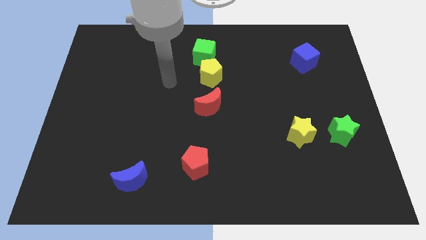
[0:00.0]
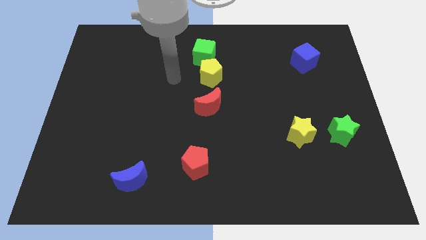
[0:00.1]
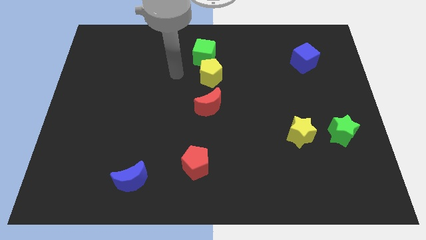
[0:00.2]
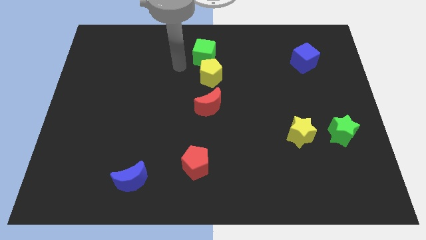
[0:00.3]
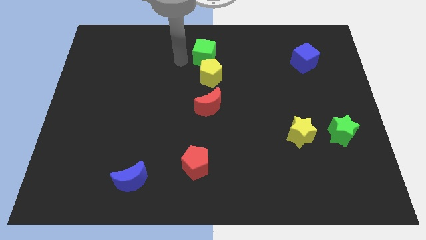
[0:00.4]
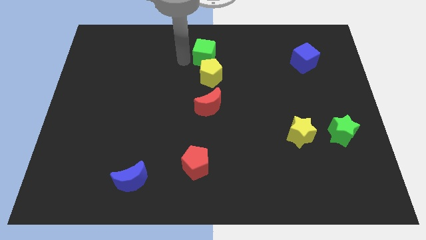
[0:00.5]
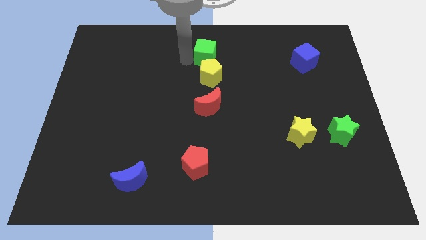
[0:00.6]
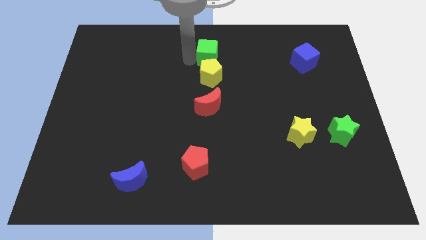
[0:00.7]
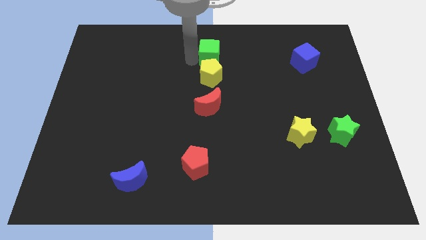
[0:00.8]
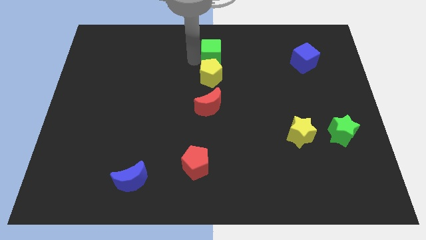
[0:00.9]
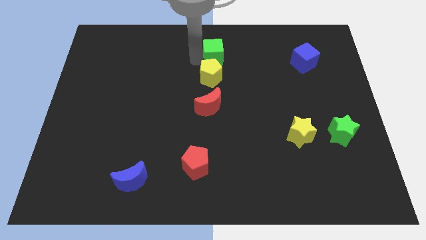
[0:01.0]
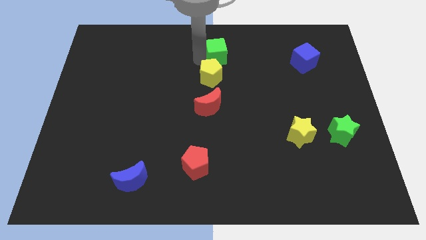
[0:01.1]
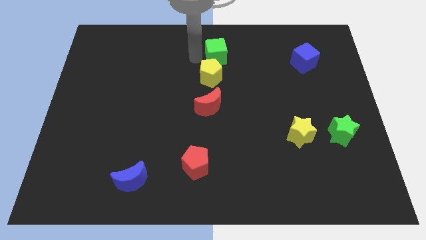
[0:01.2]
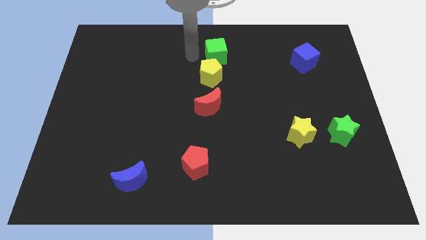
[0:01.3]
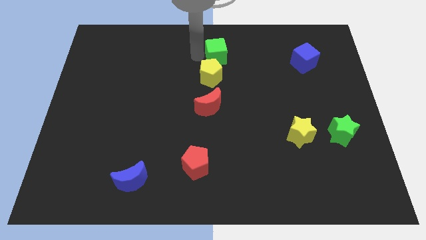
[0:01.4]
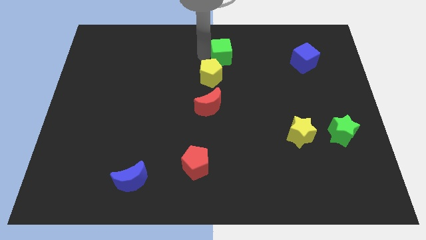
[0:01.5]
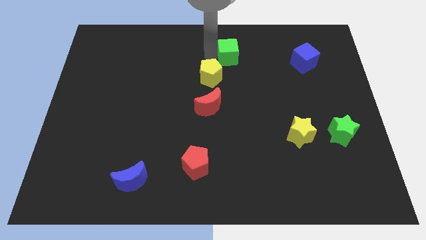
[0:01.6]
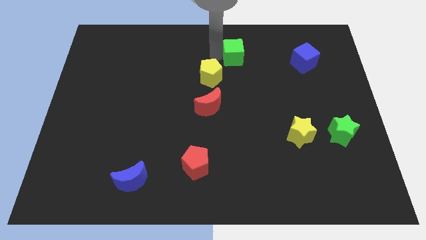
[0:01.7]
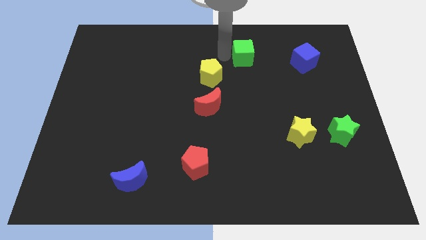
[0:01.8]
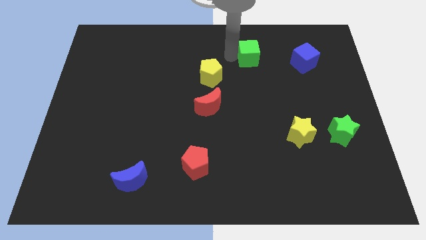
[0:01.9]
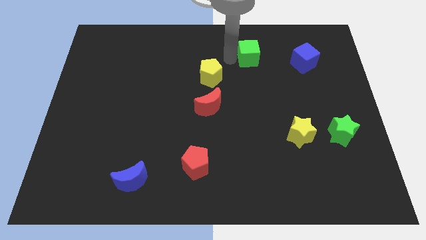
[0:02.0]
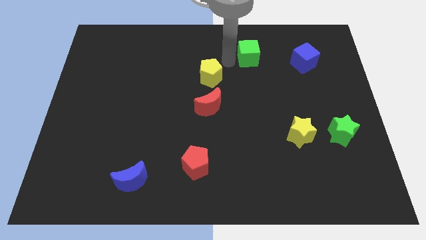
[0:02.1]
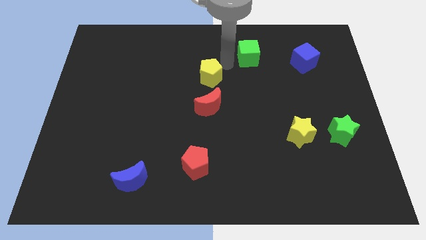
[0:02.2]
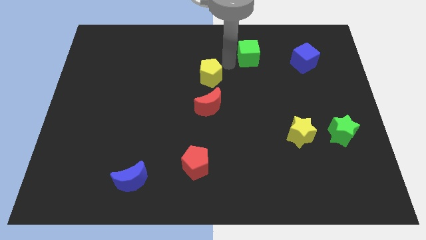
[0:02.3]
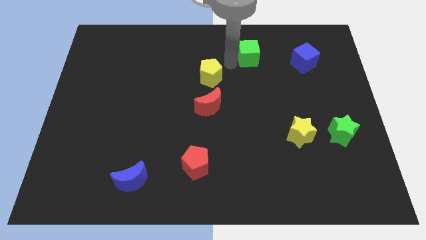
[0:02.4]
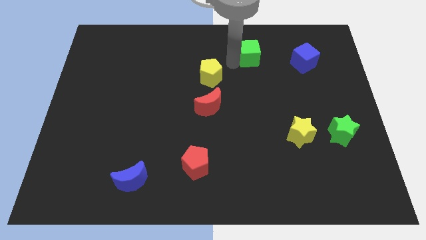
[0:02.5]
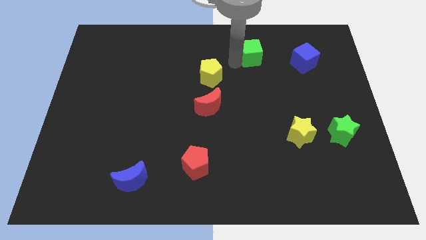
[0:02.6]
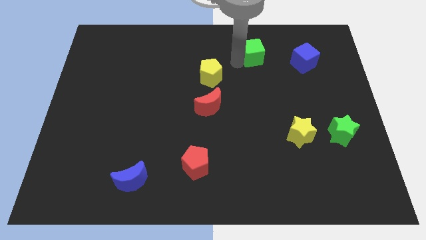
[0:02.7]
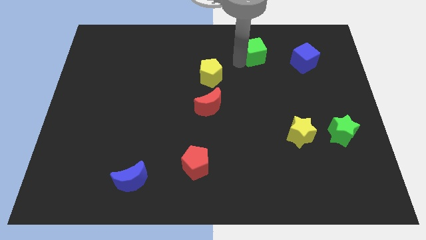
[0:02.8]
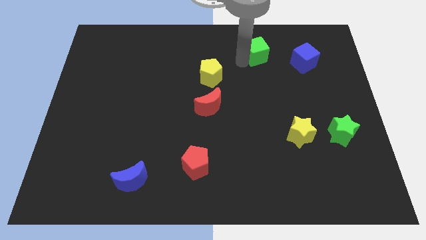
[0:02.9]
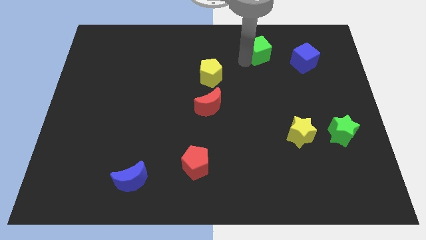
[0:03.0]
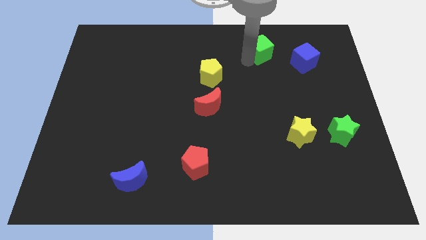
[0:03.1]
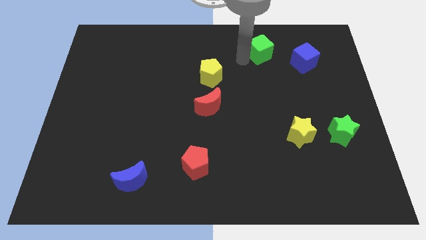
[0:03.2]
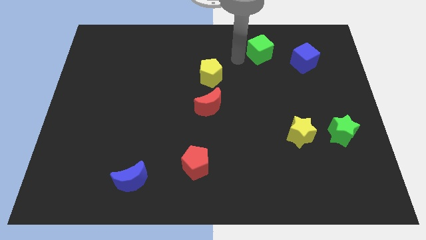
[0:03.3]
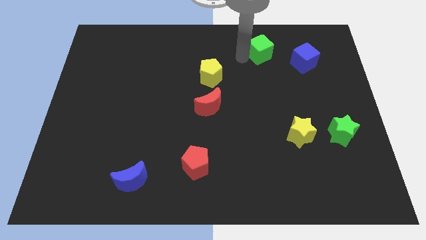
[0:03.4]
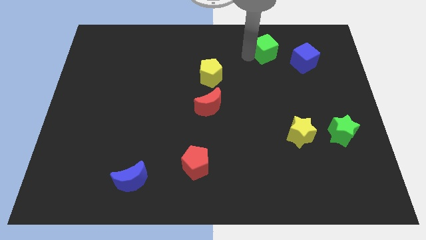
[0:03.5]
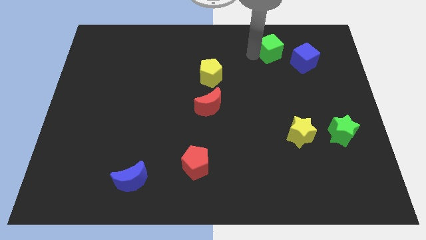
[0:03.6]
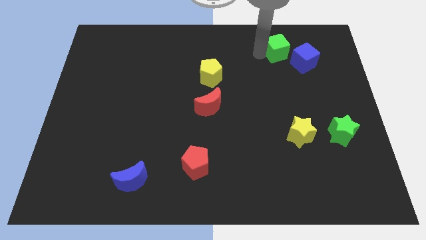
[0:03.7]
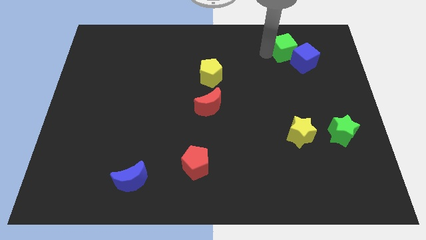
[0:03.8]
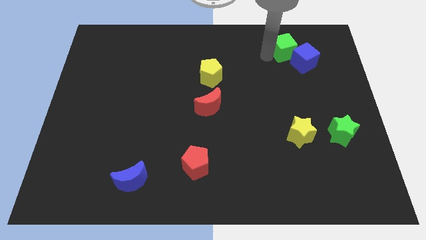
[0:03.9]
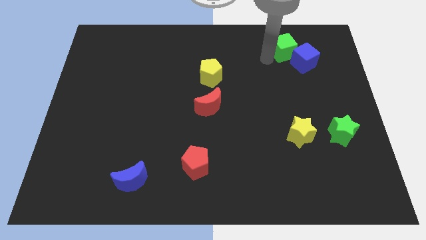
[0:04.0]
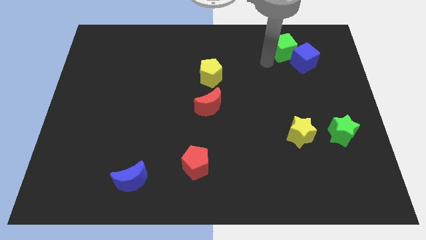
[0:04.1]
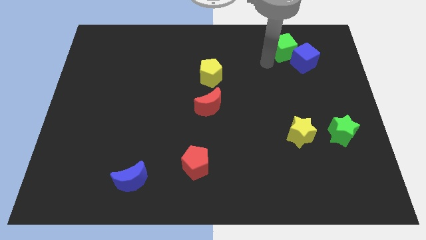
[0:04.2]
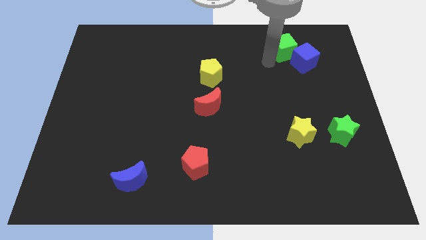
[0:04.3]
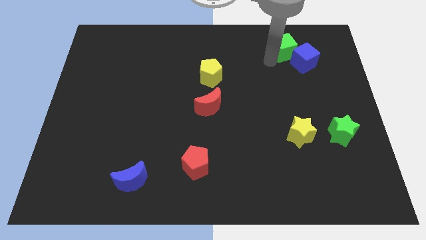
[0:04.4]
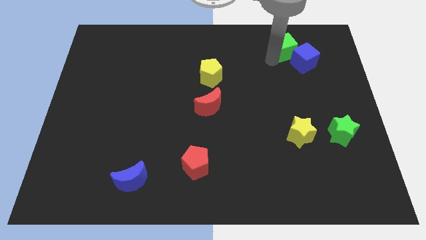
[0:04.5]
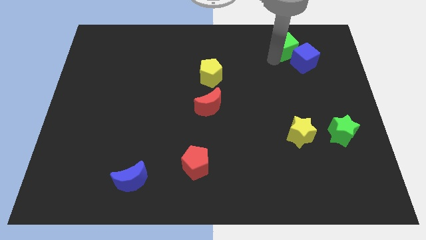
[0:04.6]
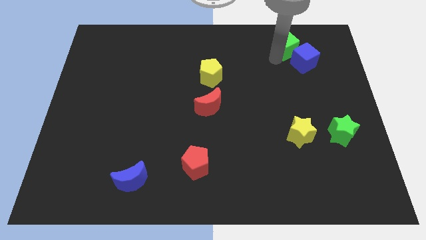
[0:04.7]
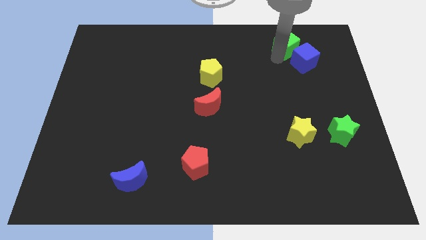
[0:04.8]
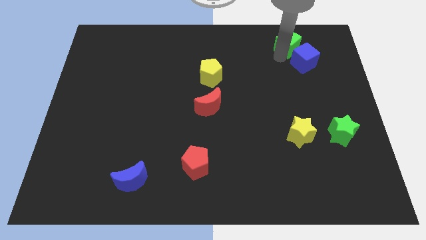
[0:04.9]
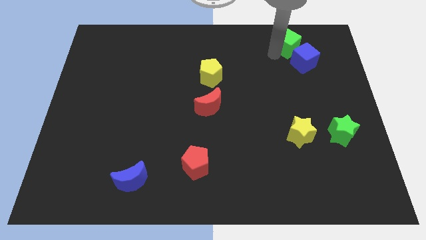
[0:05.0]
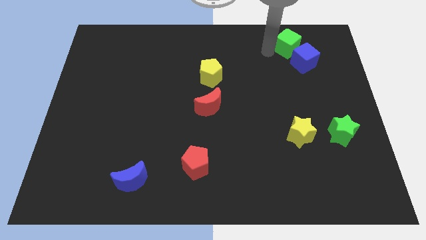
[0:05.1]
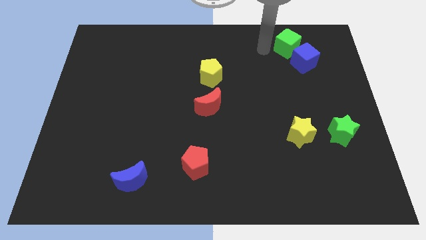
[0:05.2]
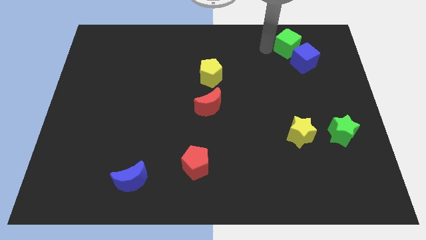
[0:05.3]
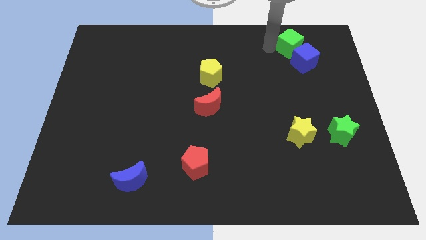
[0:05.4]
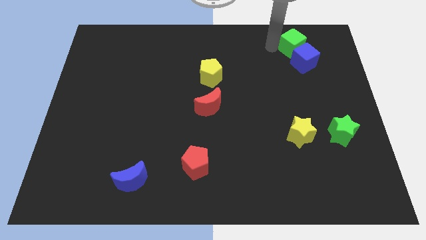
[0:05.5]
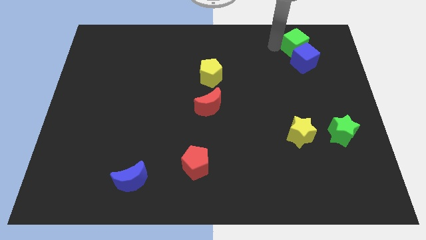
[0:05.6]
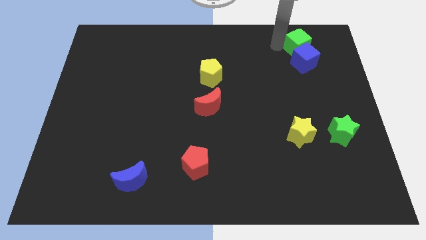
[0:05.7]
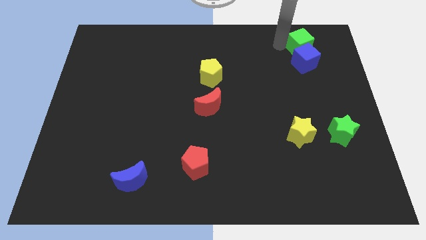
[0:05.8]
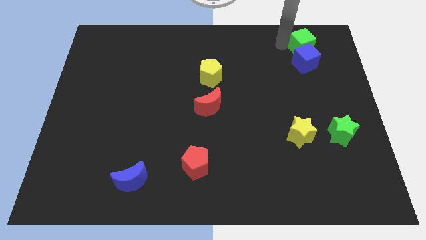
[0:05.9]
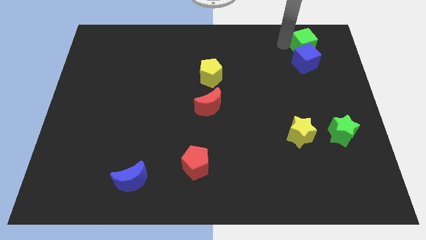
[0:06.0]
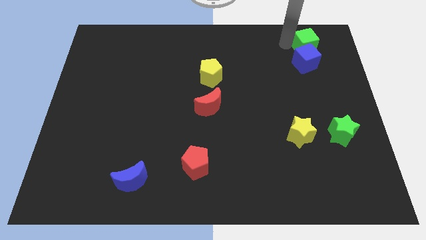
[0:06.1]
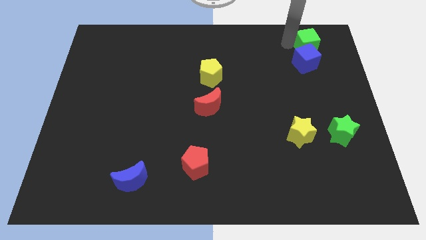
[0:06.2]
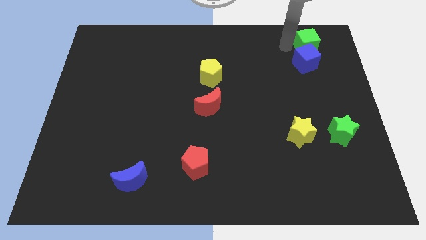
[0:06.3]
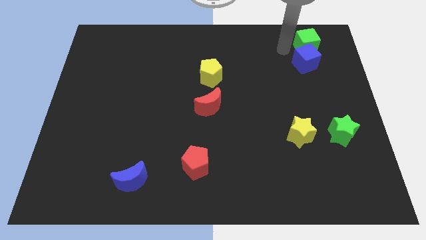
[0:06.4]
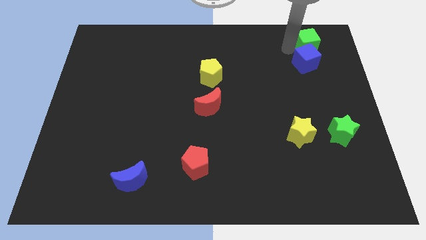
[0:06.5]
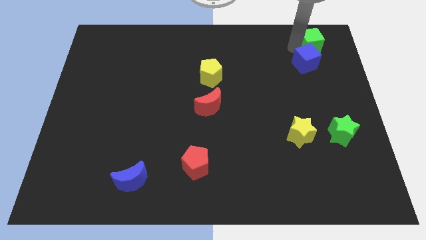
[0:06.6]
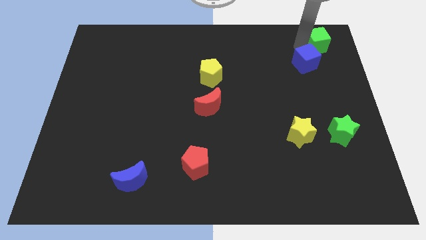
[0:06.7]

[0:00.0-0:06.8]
slide the green cube to the top right of the board

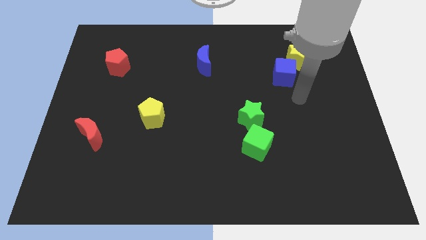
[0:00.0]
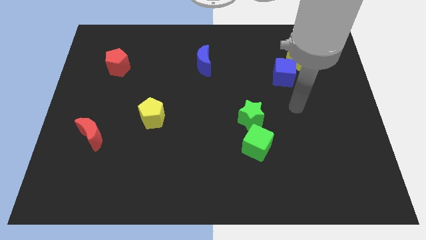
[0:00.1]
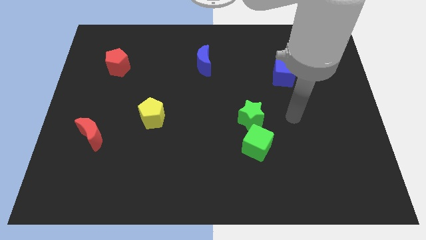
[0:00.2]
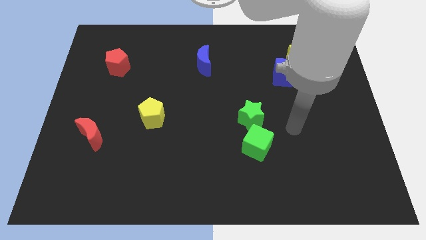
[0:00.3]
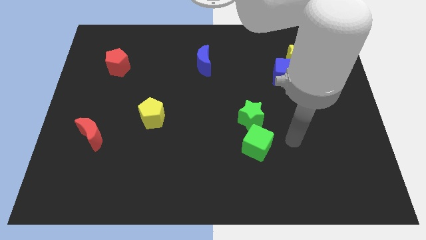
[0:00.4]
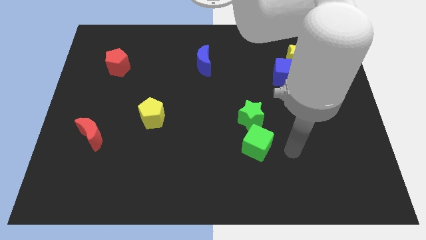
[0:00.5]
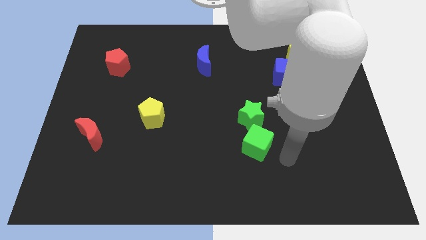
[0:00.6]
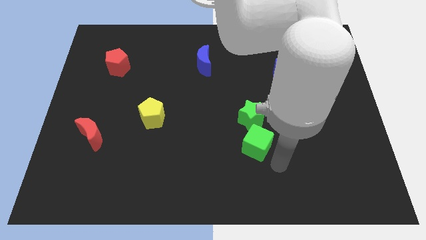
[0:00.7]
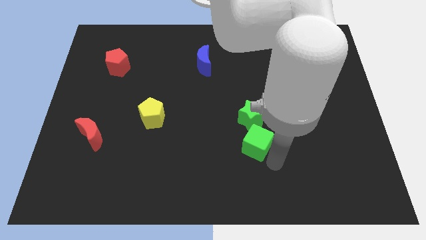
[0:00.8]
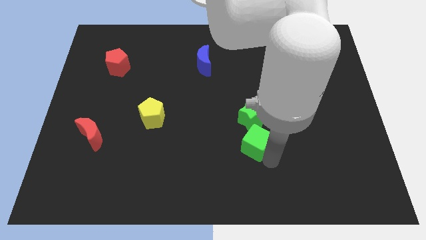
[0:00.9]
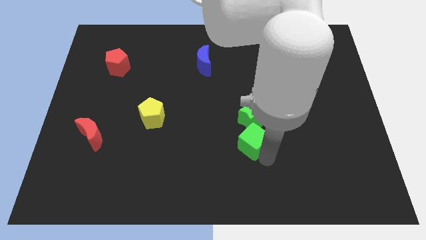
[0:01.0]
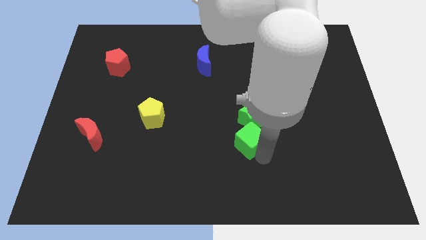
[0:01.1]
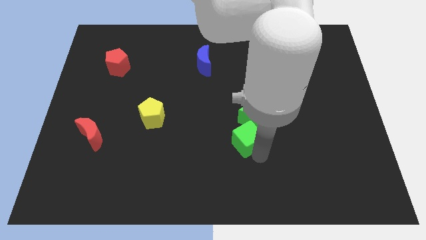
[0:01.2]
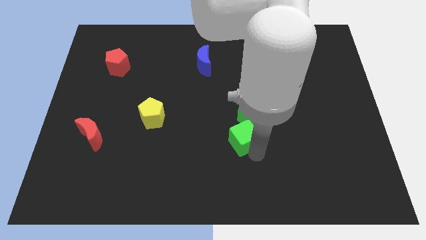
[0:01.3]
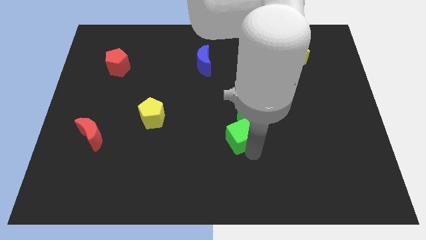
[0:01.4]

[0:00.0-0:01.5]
push the green cube to the middle
